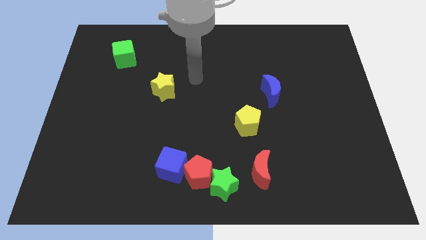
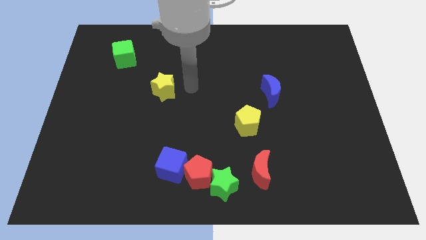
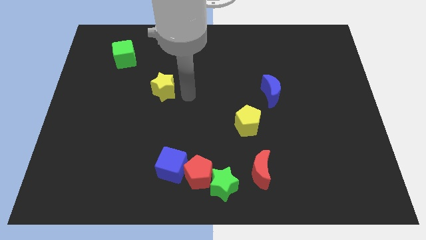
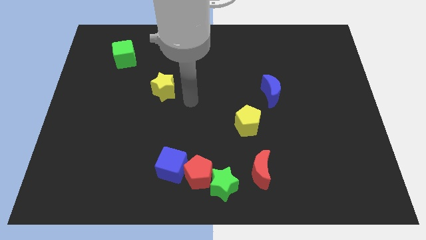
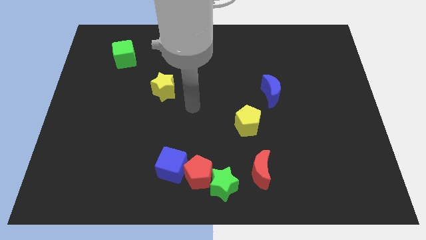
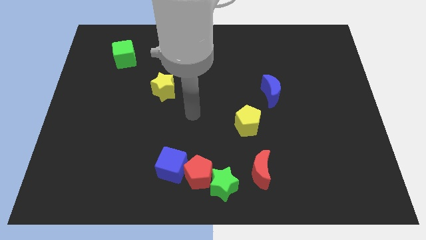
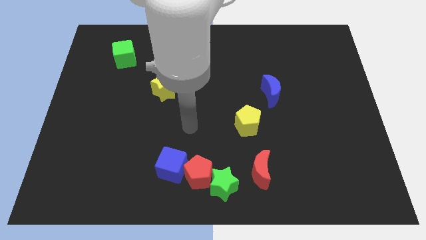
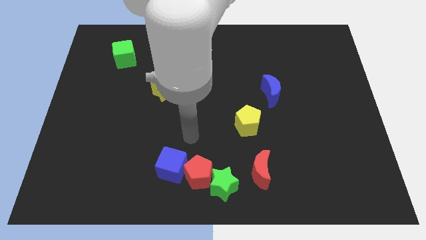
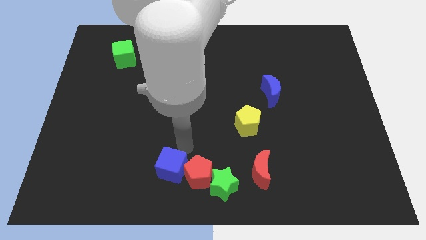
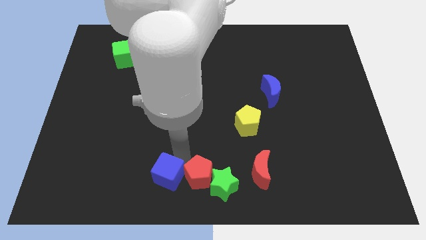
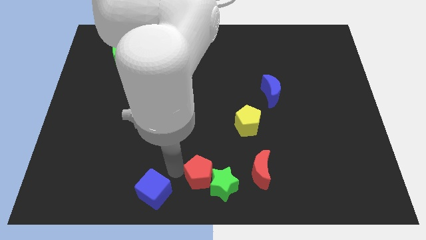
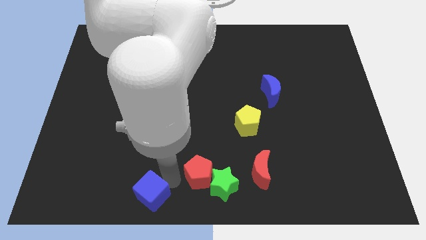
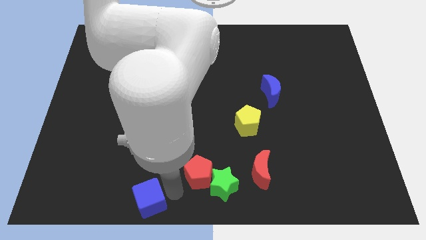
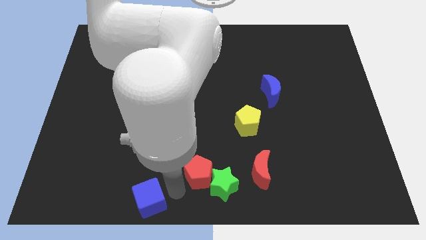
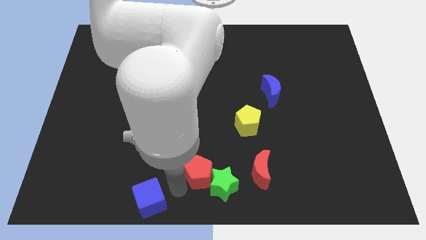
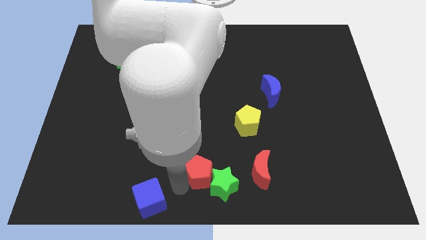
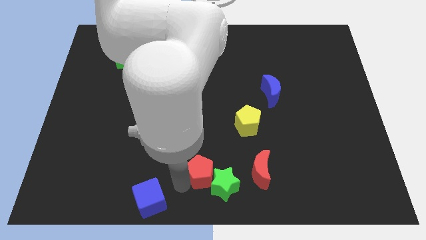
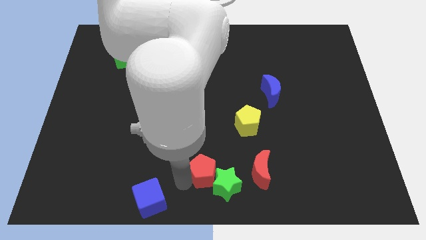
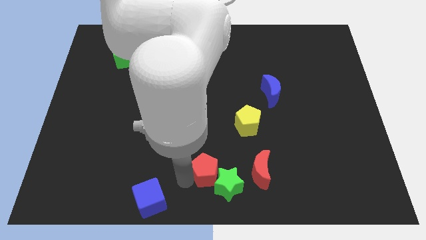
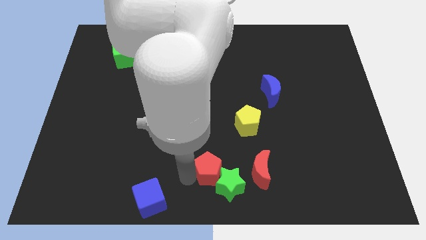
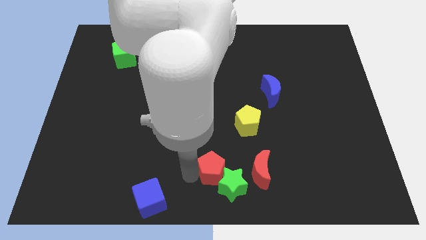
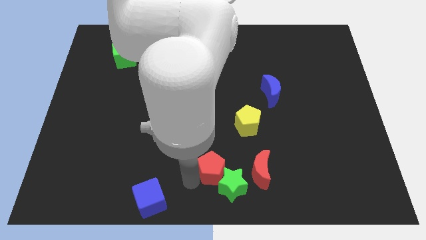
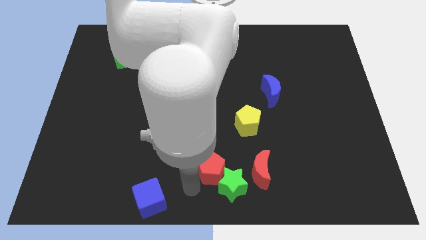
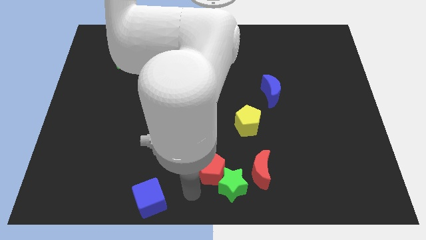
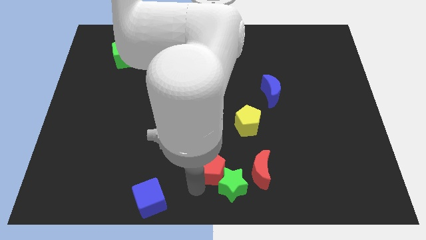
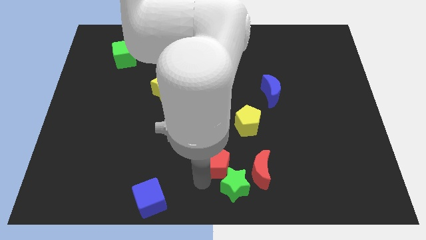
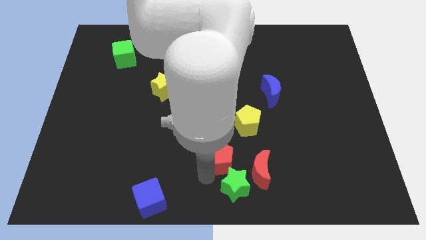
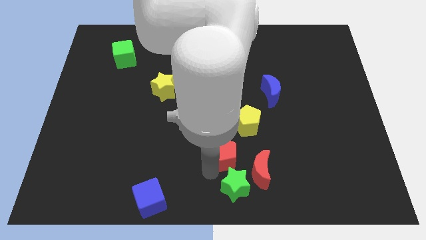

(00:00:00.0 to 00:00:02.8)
pull the red pentagon apart from the green star and blue cube

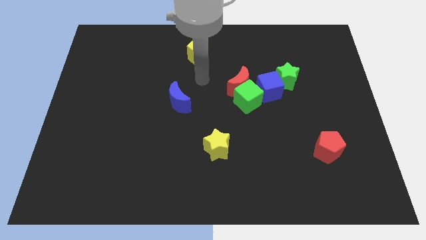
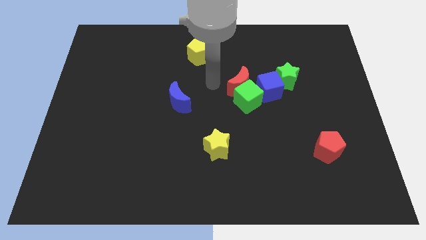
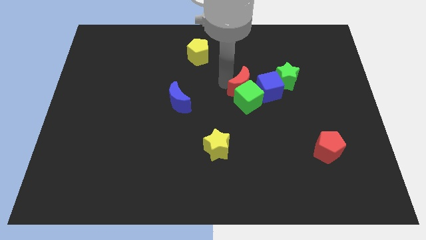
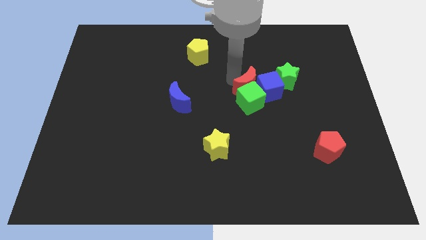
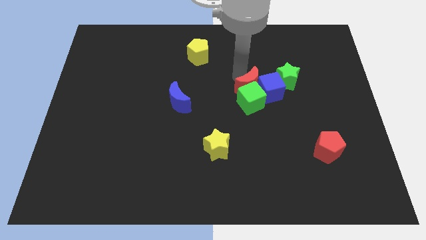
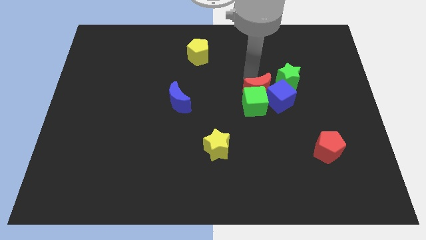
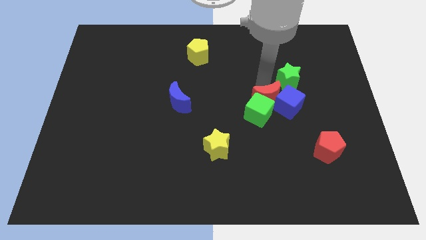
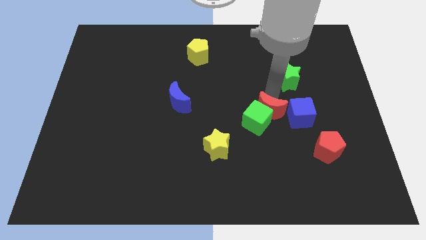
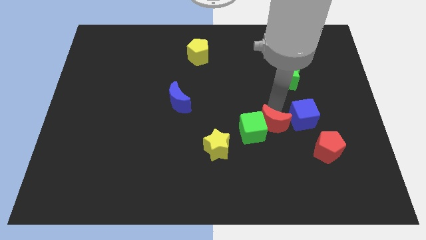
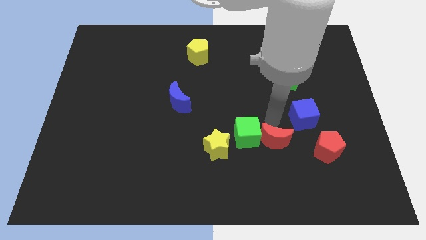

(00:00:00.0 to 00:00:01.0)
pull the green cube apart from the red moon and blue cube

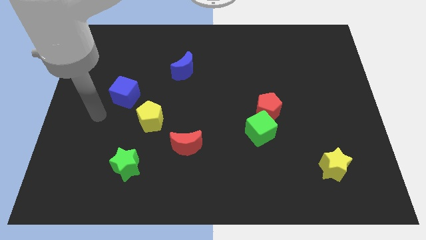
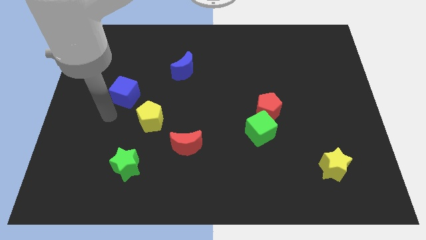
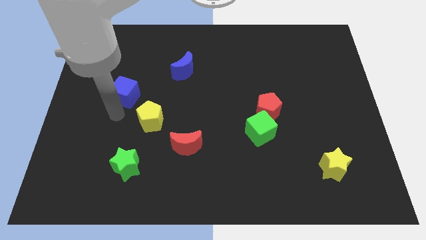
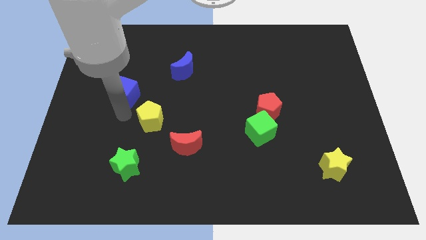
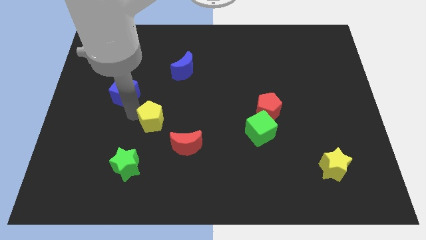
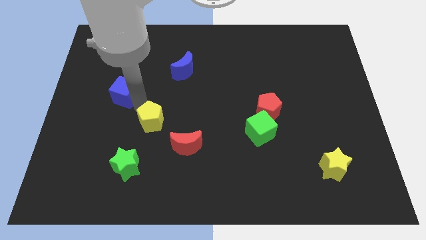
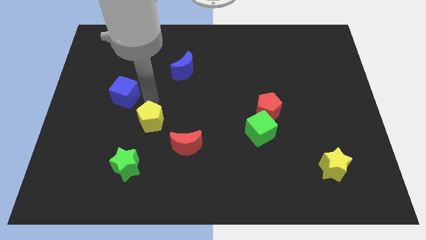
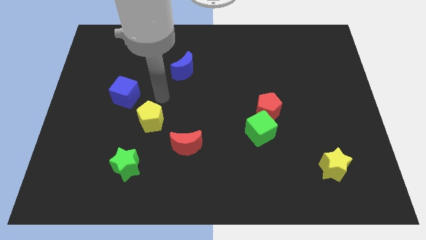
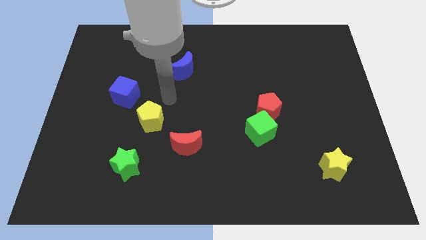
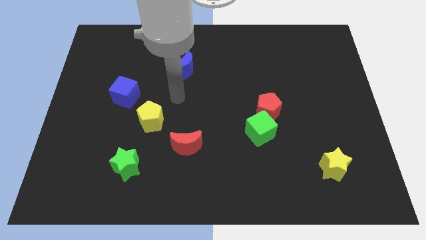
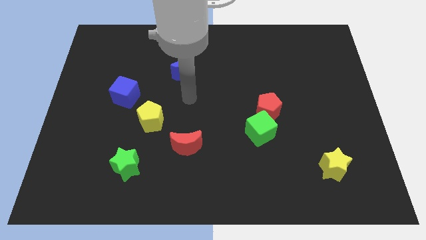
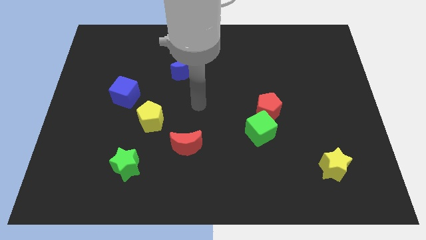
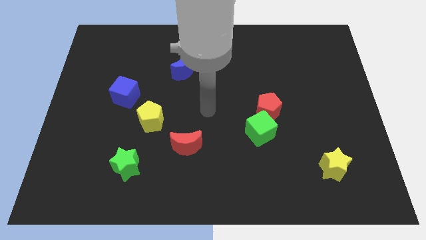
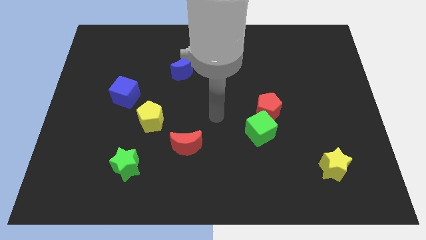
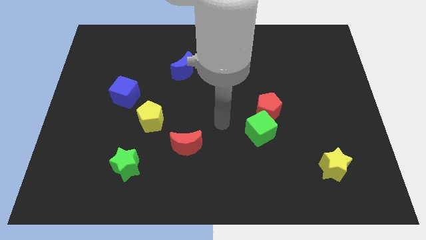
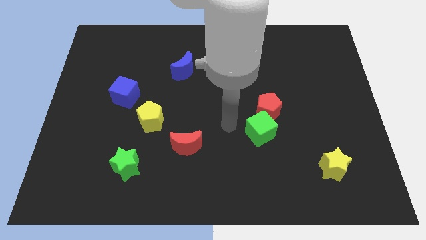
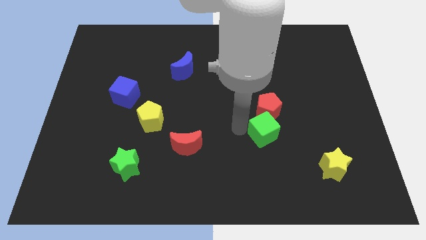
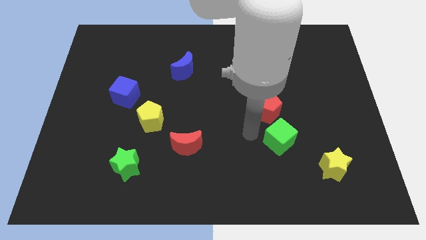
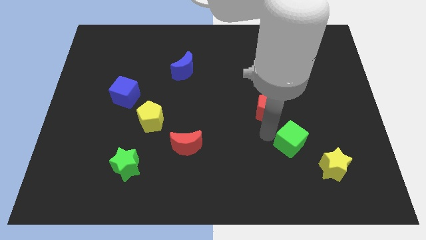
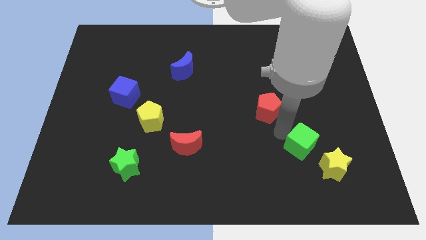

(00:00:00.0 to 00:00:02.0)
pull the red pentagon apart from the green cube

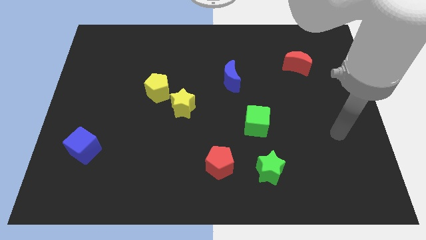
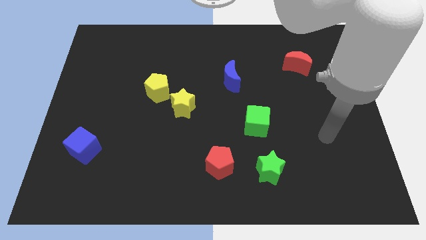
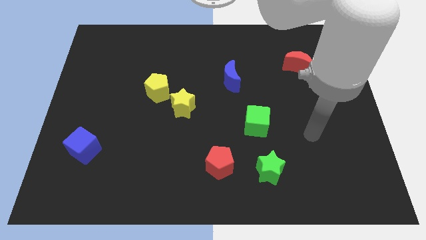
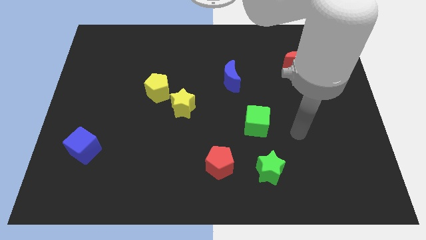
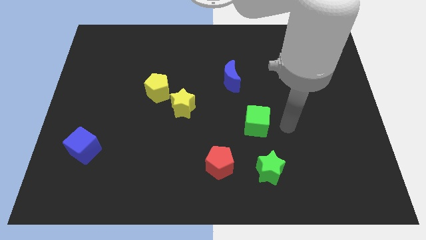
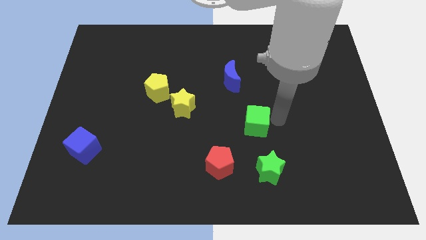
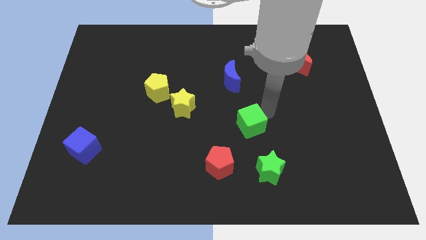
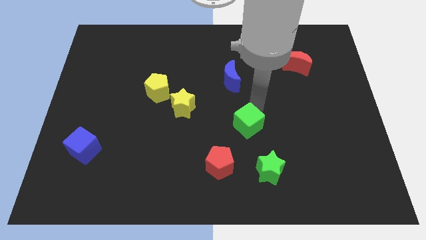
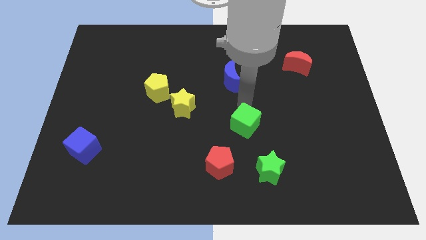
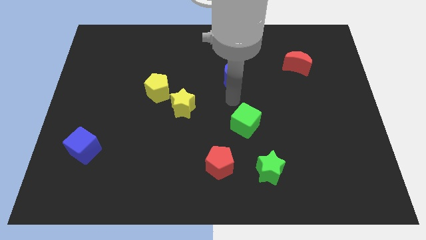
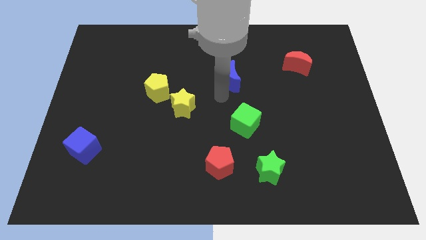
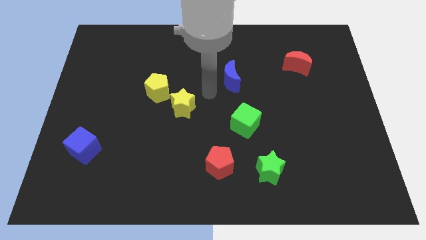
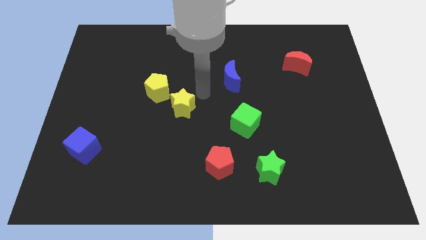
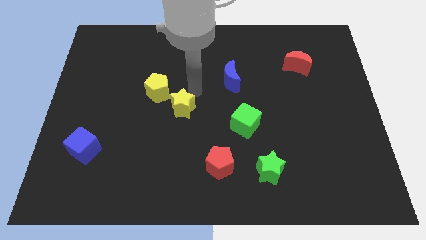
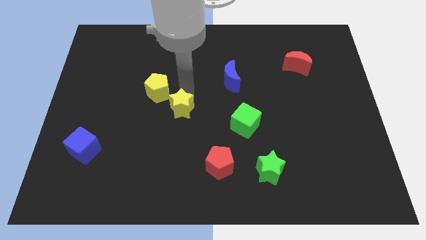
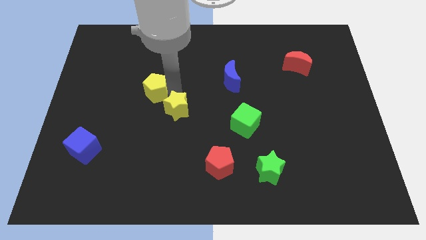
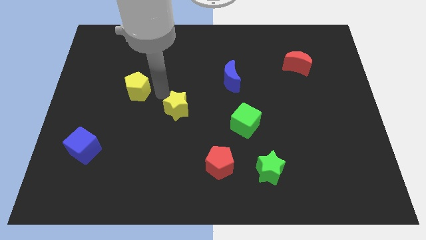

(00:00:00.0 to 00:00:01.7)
pull the yellow star apart from the yellow pentagon

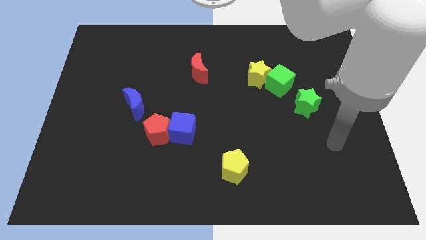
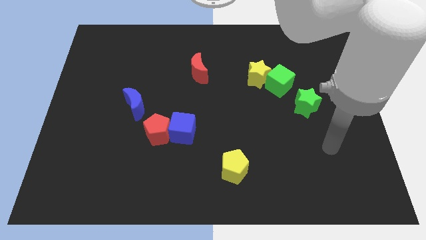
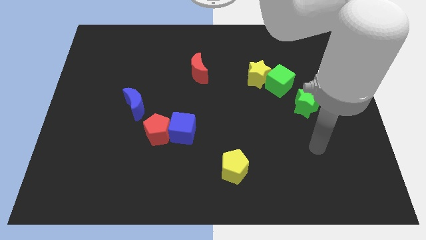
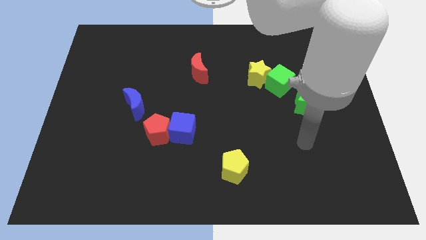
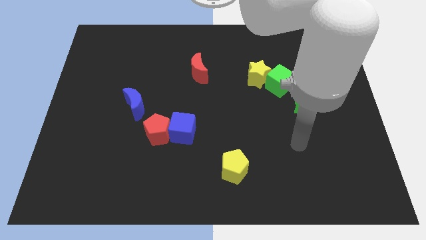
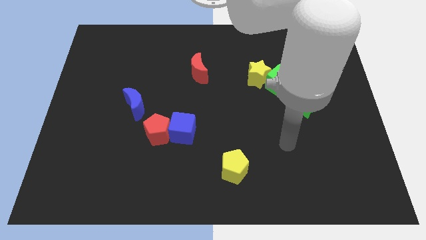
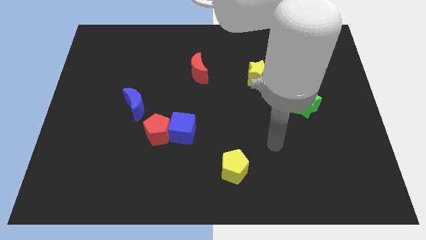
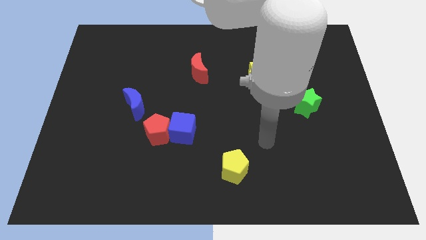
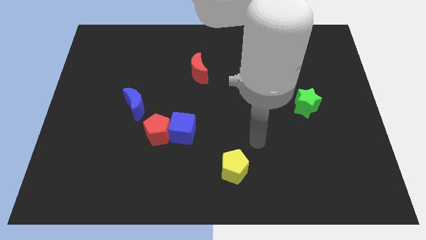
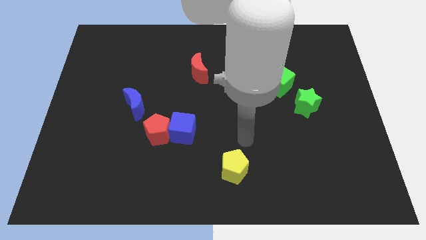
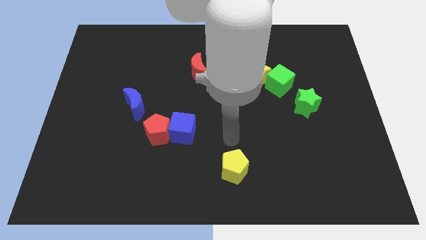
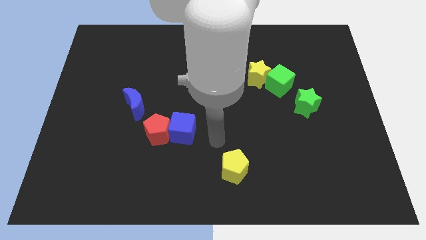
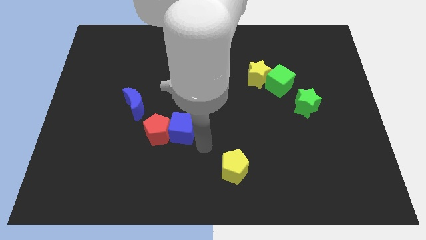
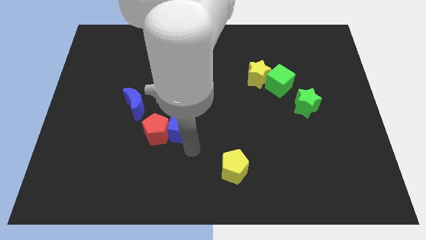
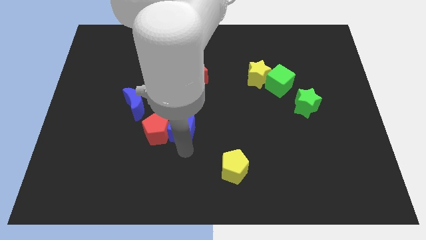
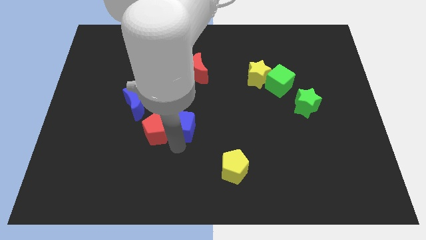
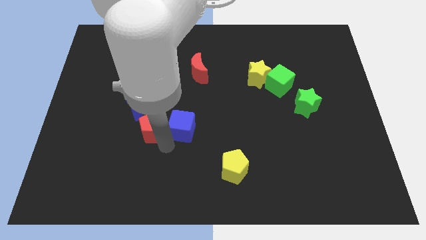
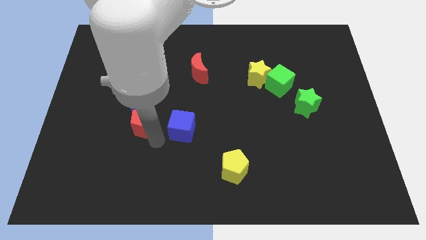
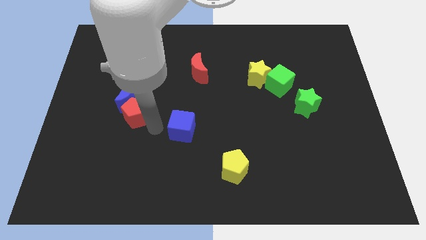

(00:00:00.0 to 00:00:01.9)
pull the blue cube apart from the red pentagon
